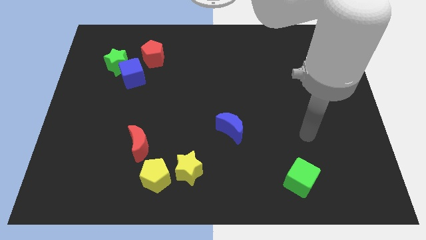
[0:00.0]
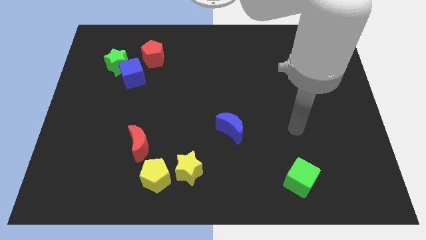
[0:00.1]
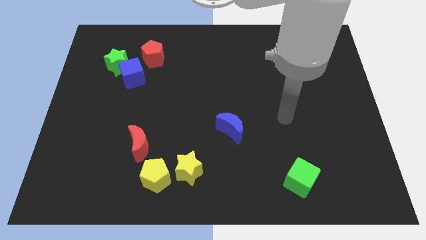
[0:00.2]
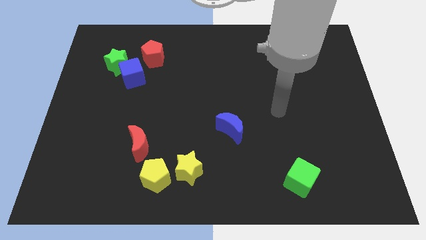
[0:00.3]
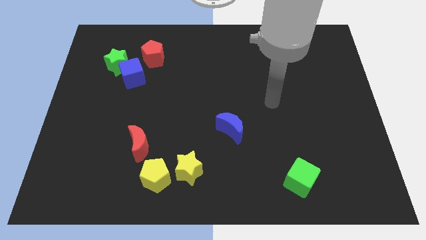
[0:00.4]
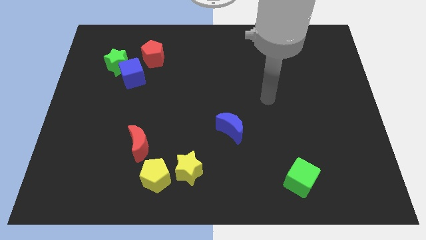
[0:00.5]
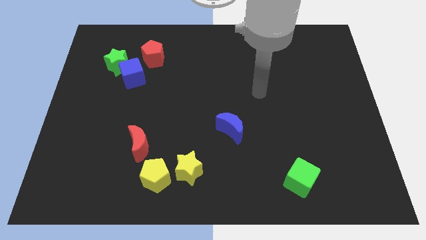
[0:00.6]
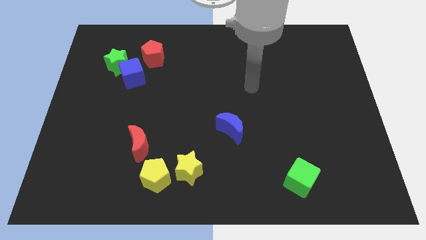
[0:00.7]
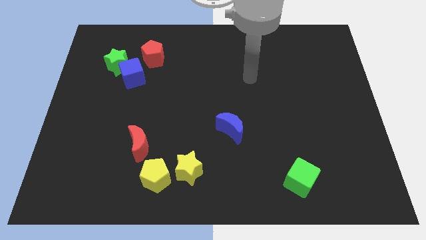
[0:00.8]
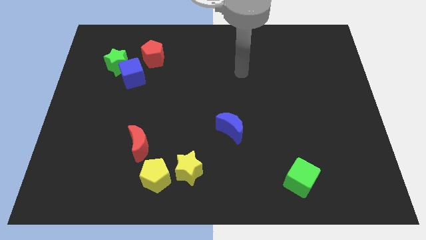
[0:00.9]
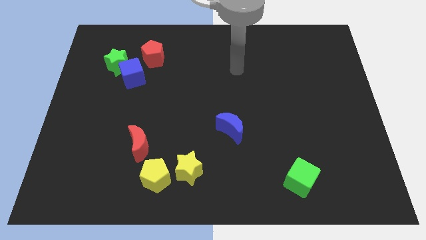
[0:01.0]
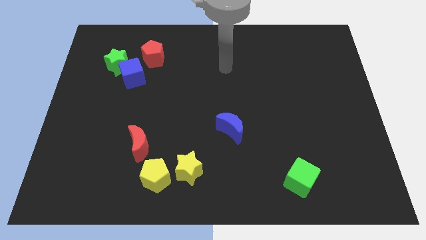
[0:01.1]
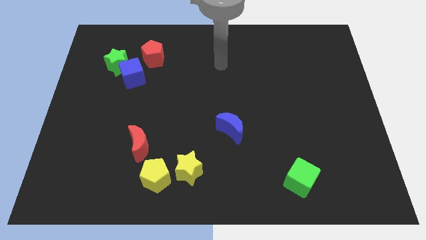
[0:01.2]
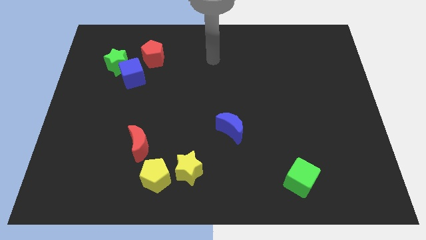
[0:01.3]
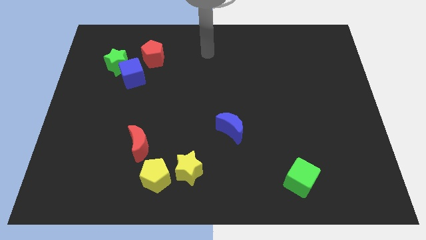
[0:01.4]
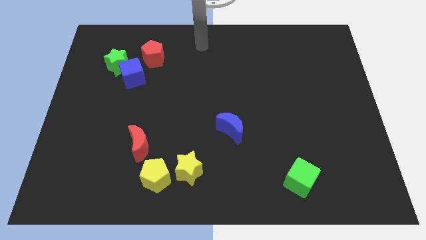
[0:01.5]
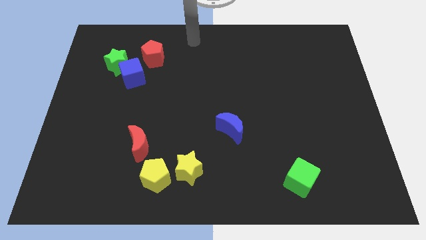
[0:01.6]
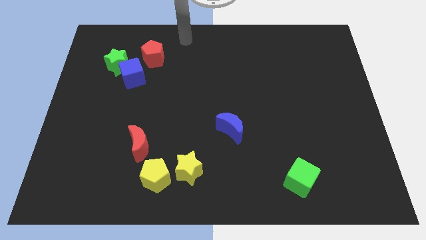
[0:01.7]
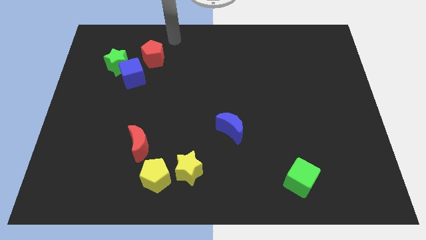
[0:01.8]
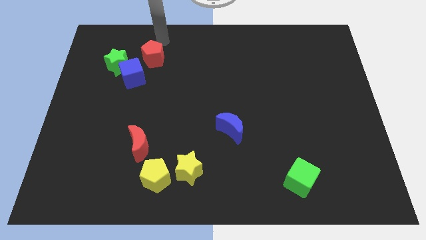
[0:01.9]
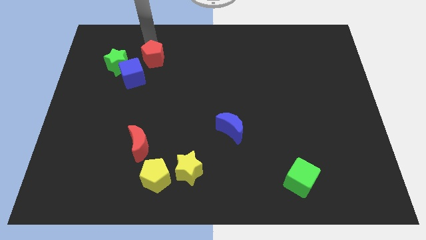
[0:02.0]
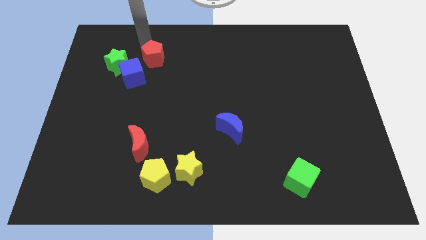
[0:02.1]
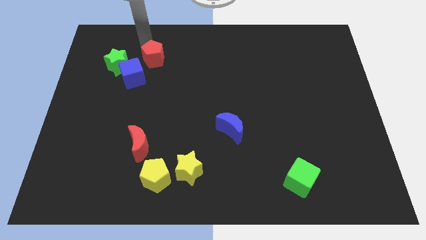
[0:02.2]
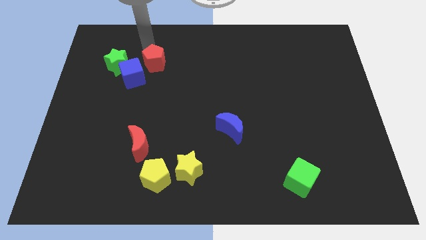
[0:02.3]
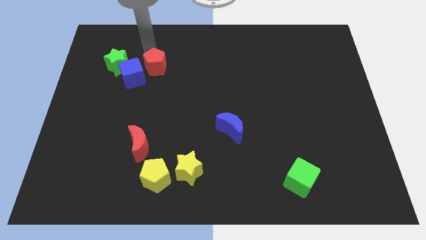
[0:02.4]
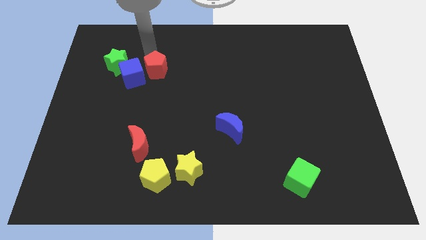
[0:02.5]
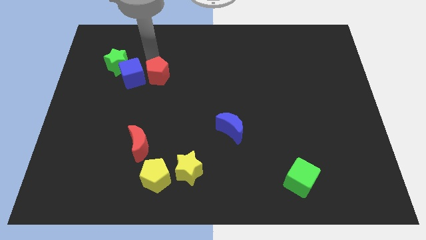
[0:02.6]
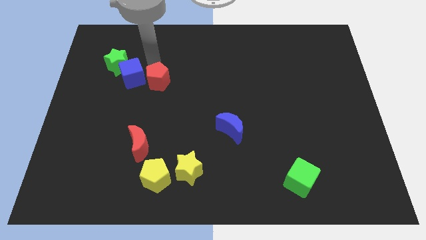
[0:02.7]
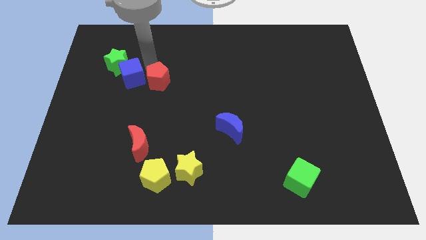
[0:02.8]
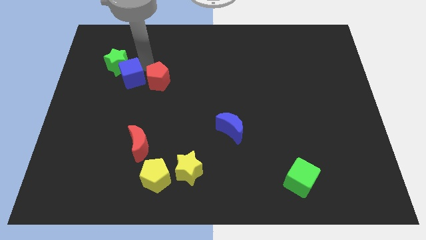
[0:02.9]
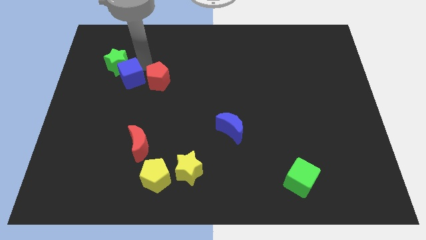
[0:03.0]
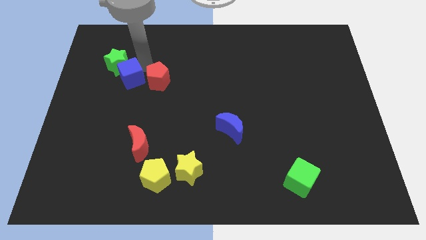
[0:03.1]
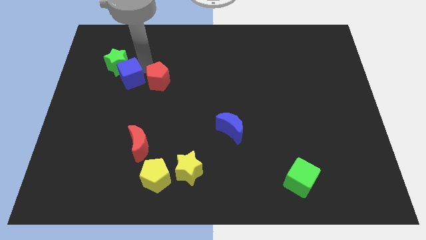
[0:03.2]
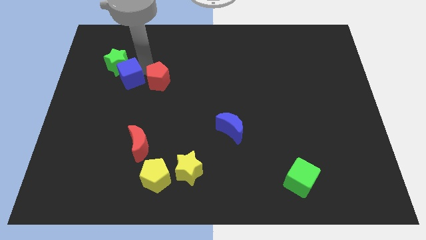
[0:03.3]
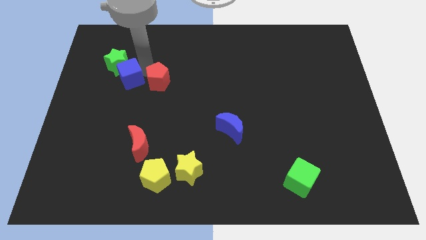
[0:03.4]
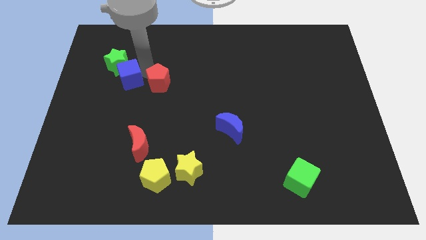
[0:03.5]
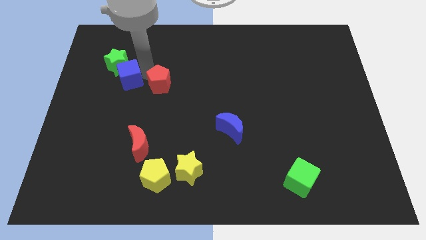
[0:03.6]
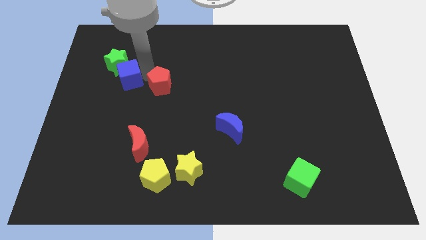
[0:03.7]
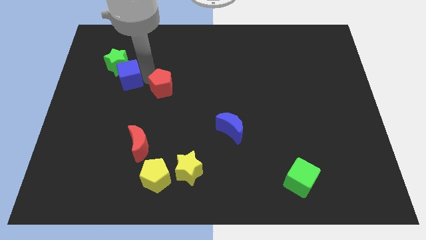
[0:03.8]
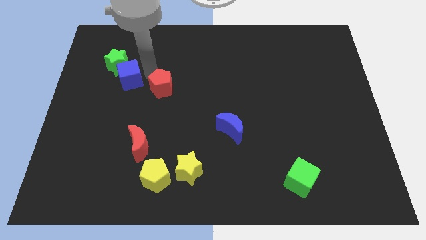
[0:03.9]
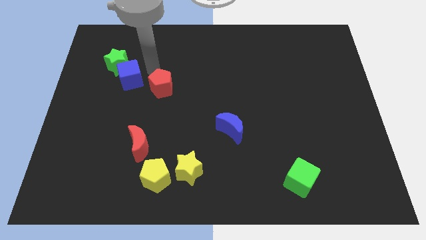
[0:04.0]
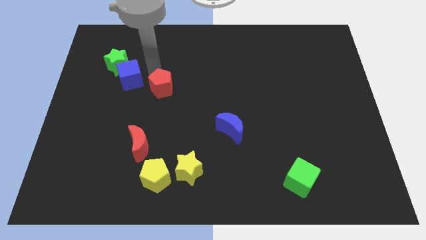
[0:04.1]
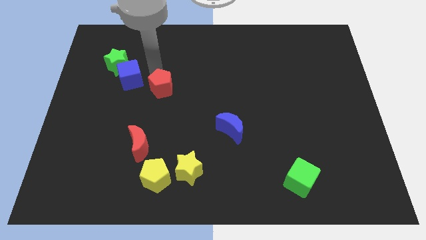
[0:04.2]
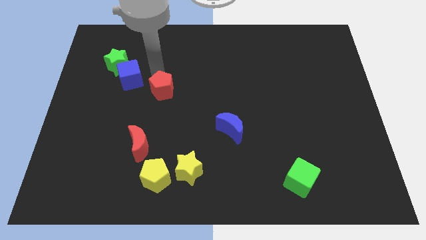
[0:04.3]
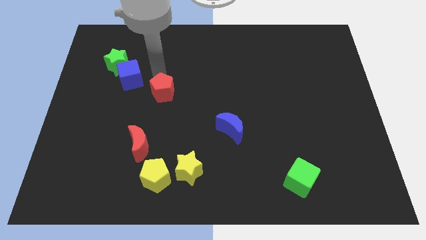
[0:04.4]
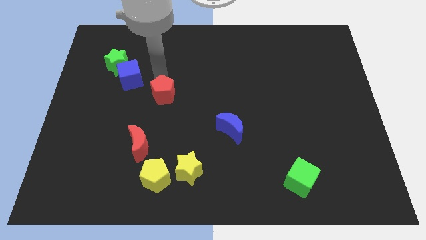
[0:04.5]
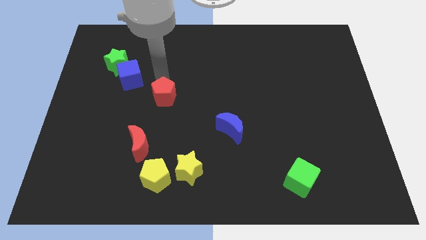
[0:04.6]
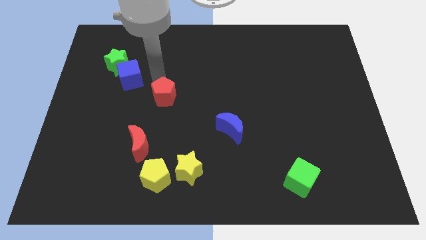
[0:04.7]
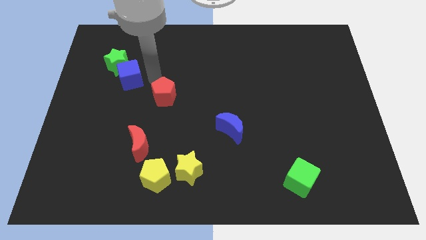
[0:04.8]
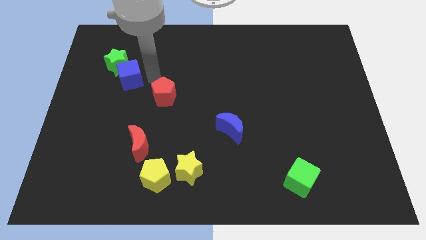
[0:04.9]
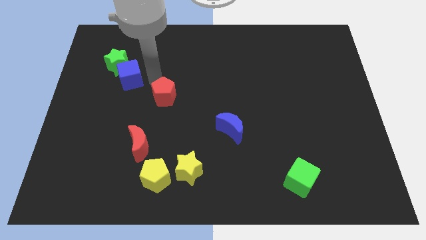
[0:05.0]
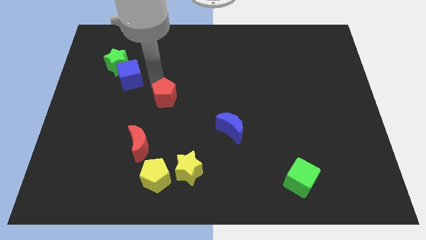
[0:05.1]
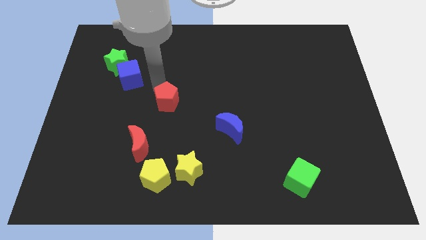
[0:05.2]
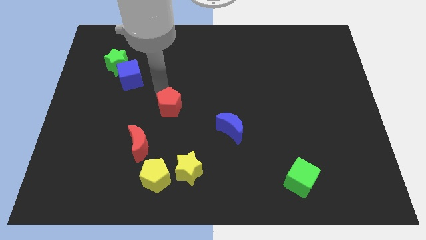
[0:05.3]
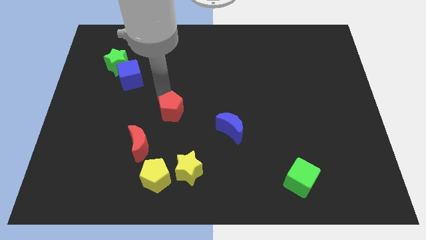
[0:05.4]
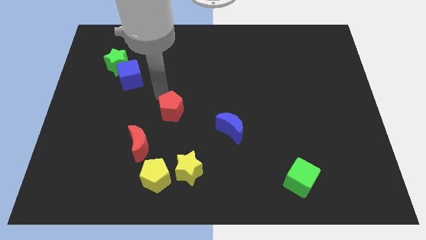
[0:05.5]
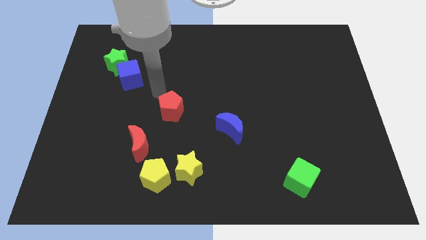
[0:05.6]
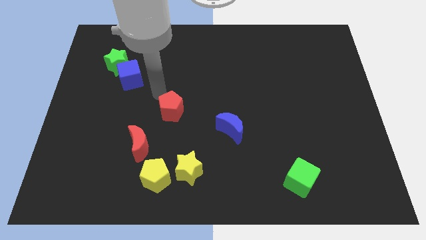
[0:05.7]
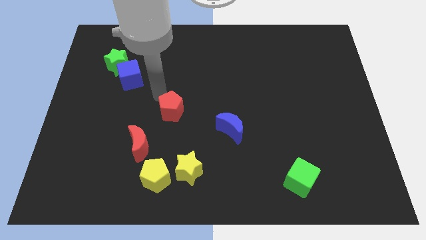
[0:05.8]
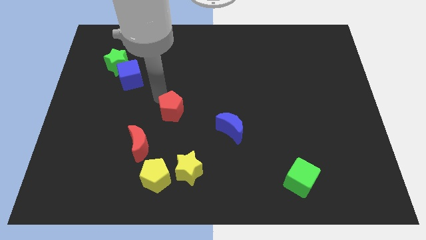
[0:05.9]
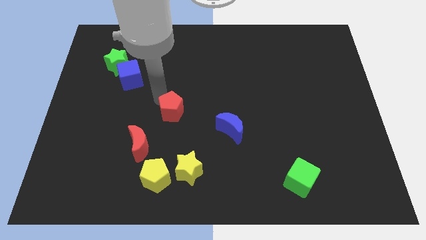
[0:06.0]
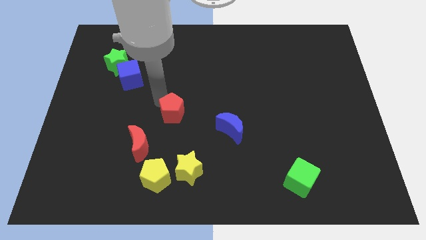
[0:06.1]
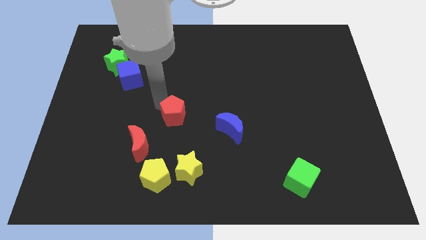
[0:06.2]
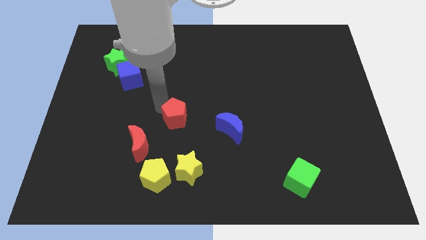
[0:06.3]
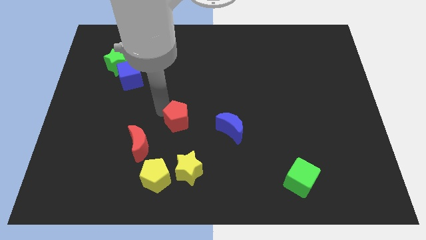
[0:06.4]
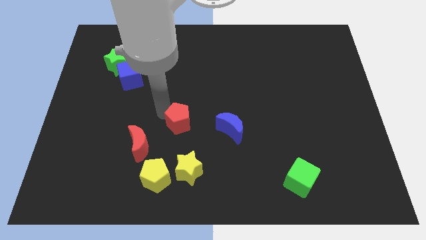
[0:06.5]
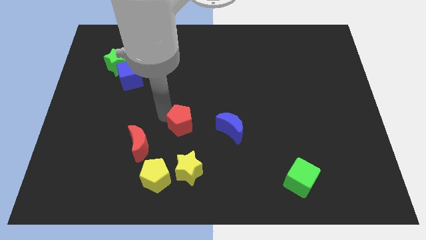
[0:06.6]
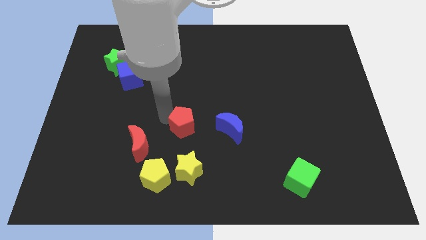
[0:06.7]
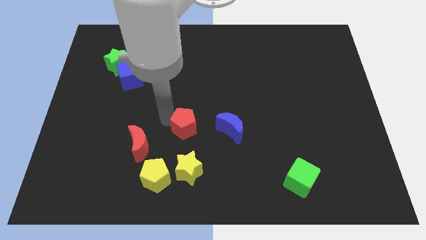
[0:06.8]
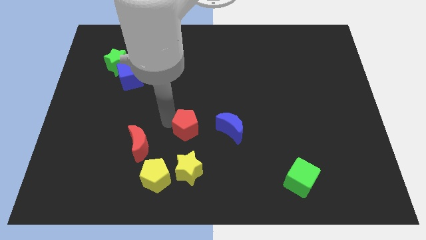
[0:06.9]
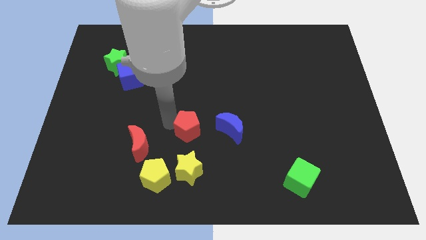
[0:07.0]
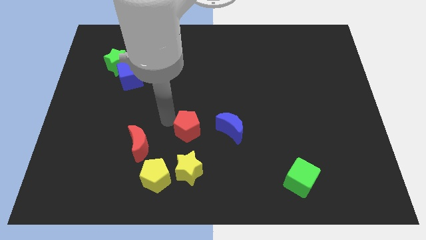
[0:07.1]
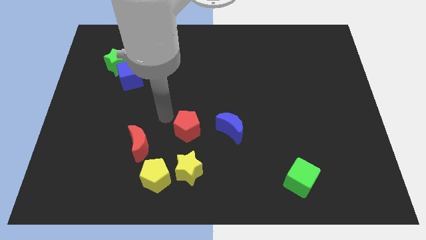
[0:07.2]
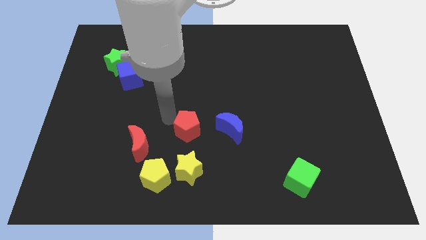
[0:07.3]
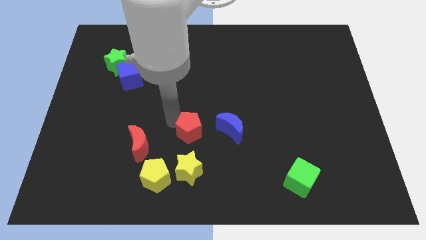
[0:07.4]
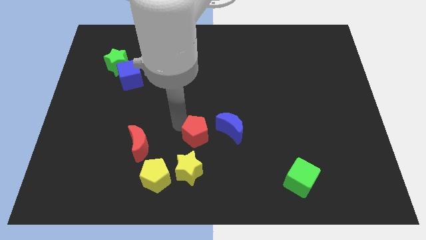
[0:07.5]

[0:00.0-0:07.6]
push the red pentagon to the bottom left of the blue moon
